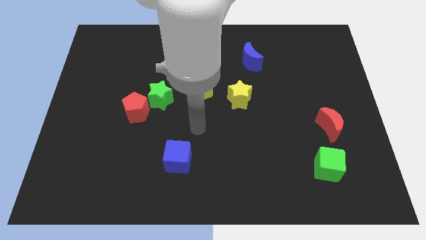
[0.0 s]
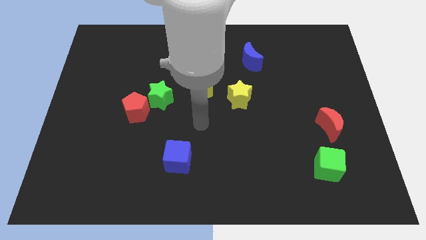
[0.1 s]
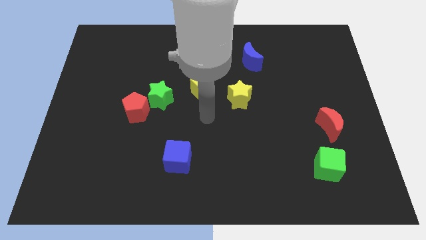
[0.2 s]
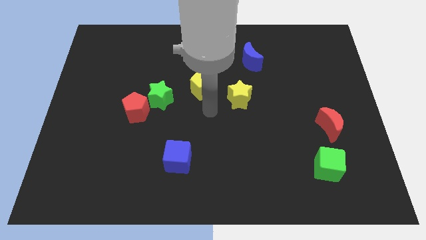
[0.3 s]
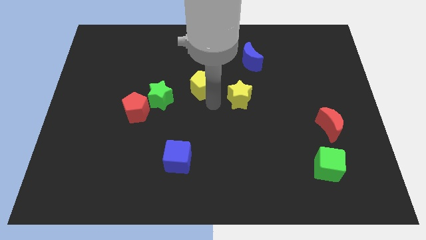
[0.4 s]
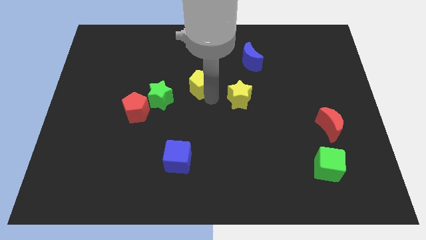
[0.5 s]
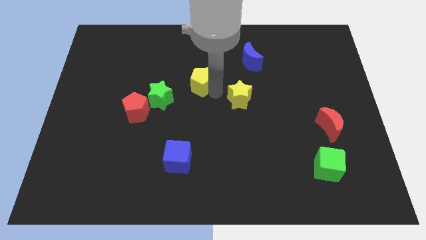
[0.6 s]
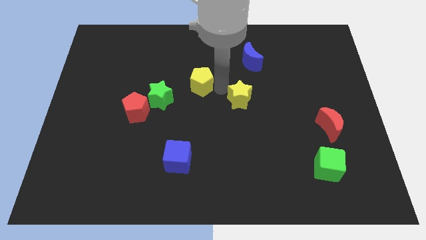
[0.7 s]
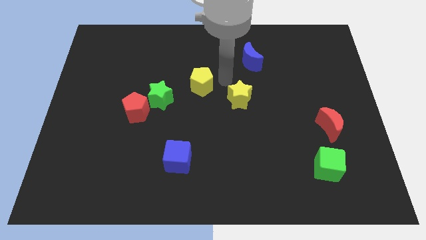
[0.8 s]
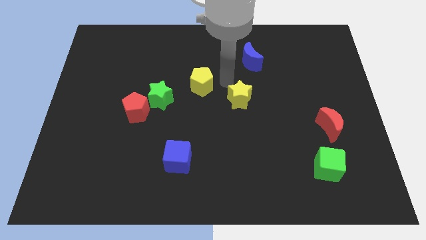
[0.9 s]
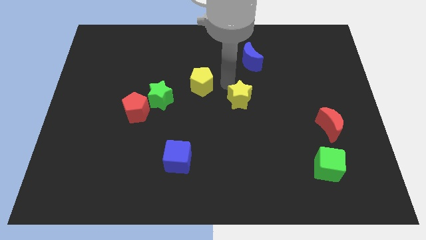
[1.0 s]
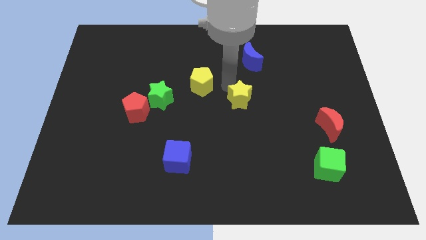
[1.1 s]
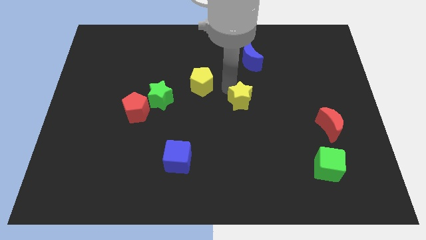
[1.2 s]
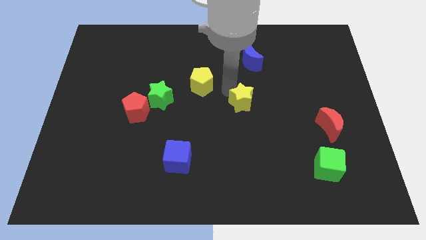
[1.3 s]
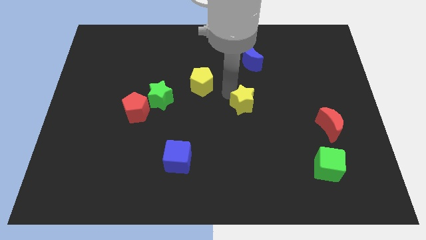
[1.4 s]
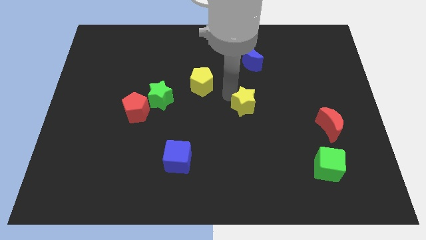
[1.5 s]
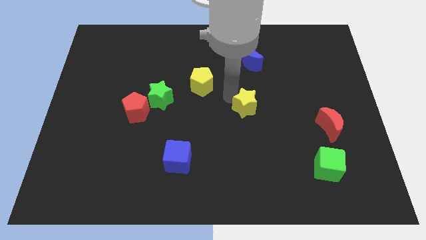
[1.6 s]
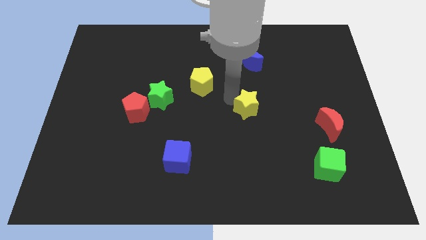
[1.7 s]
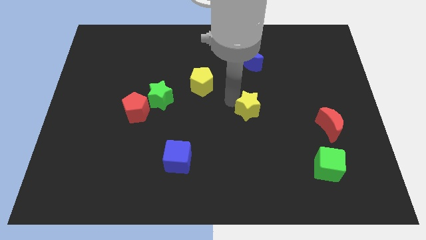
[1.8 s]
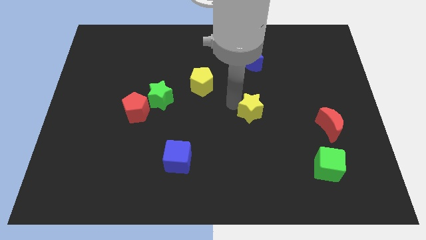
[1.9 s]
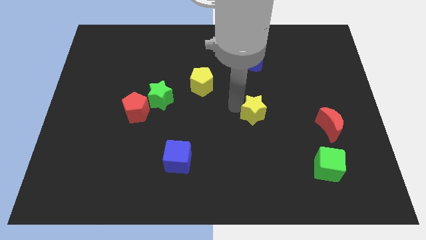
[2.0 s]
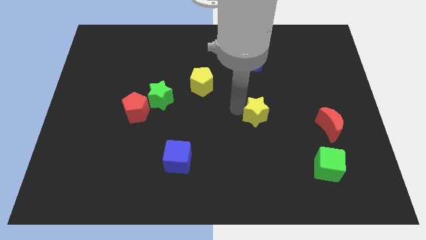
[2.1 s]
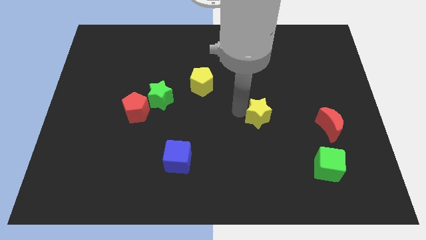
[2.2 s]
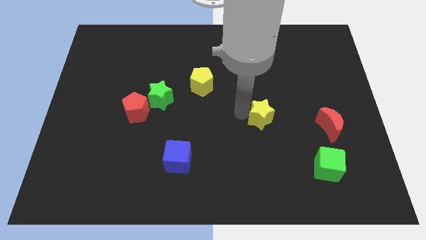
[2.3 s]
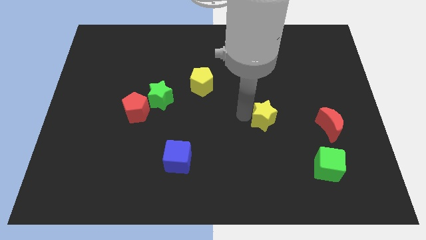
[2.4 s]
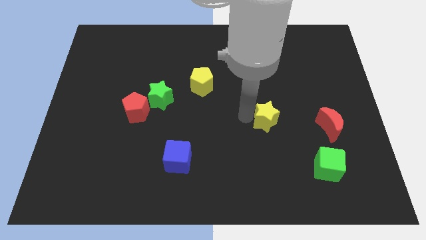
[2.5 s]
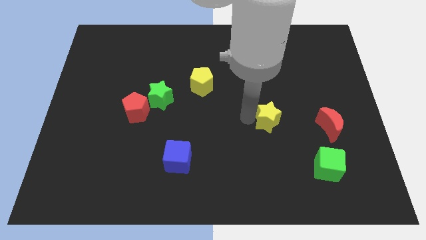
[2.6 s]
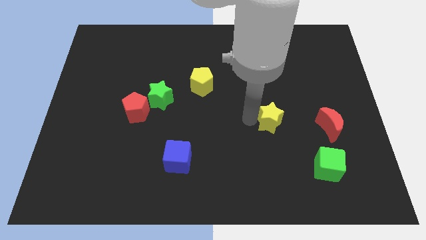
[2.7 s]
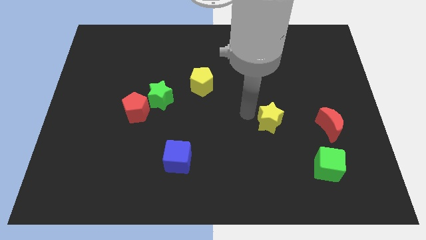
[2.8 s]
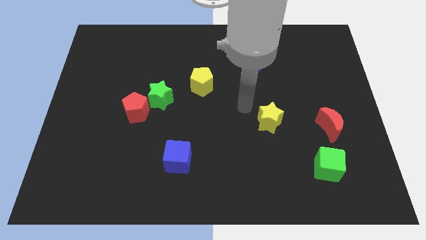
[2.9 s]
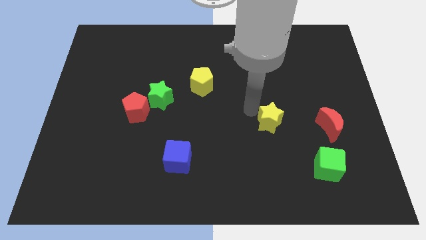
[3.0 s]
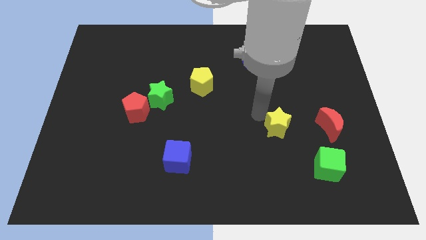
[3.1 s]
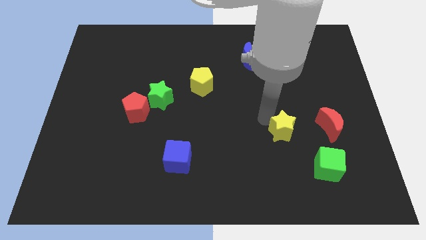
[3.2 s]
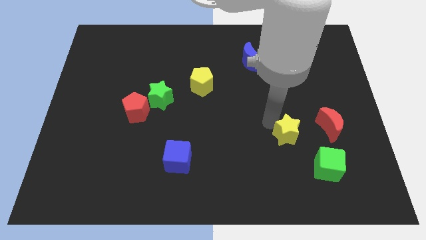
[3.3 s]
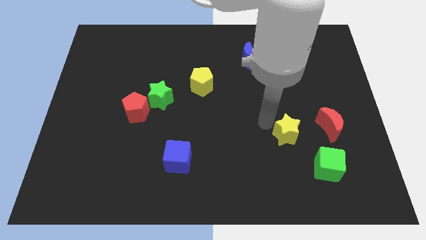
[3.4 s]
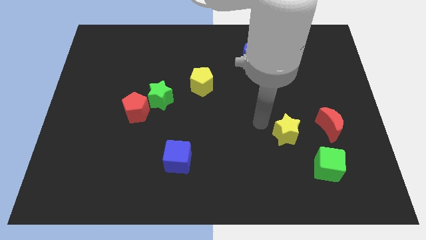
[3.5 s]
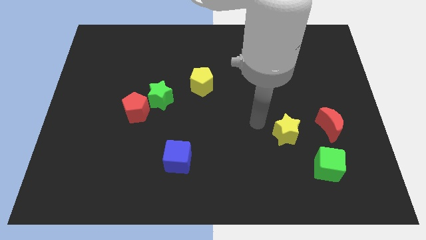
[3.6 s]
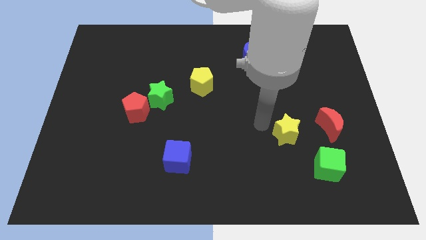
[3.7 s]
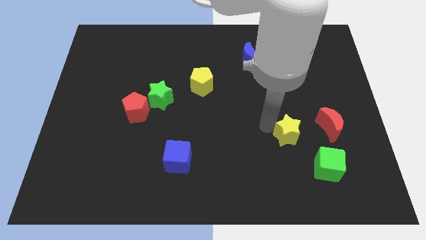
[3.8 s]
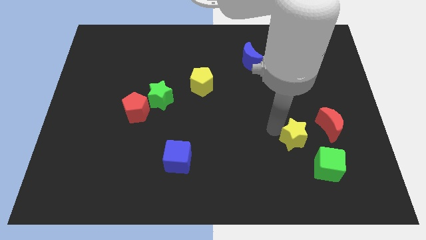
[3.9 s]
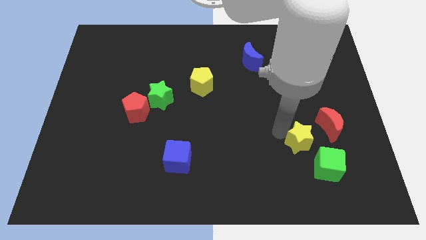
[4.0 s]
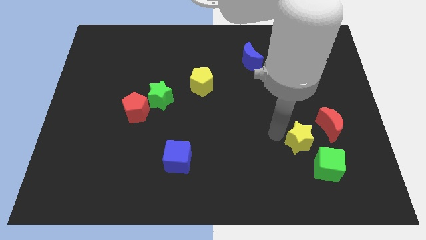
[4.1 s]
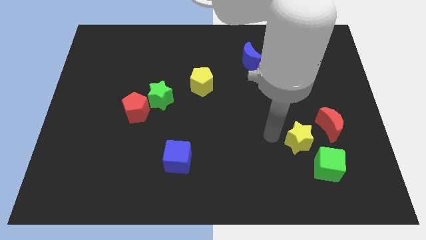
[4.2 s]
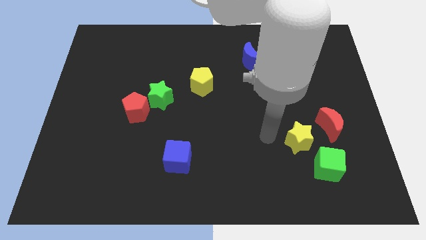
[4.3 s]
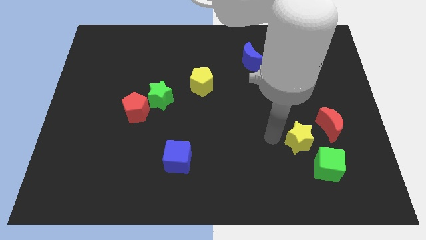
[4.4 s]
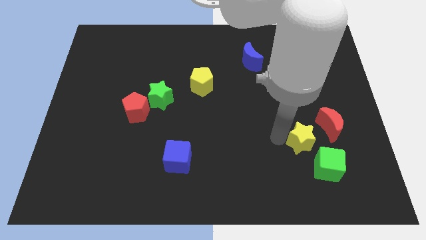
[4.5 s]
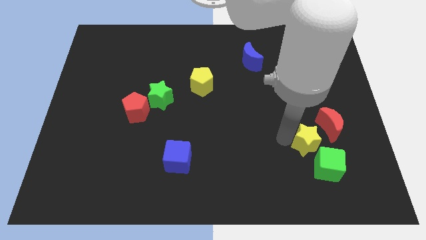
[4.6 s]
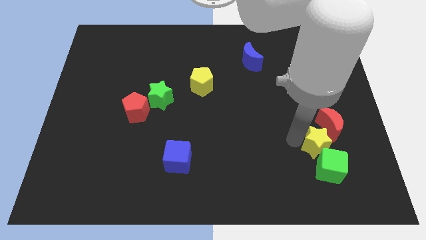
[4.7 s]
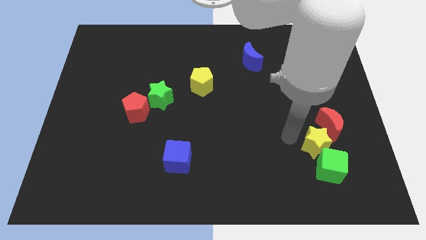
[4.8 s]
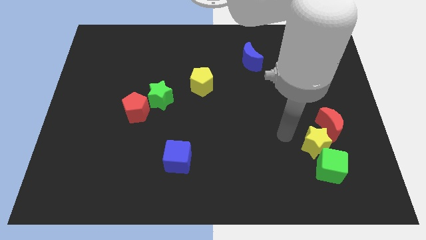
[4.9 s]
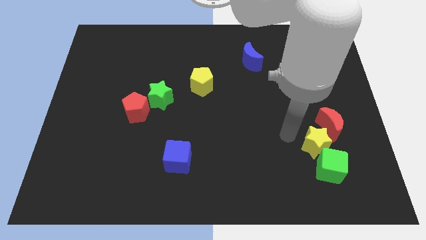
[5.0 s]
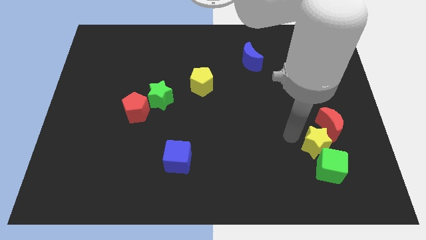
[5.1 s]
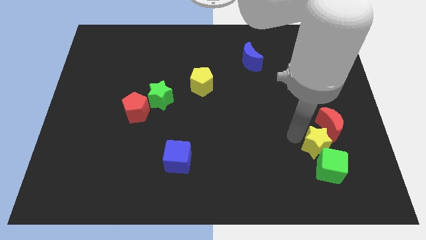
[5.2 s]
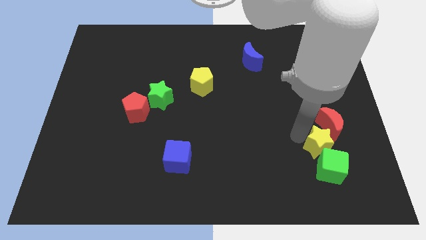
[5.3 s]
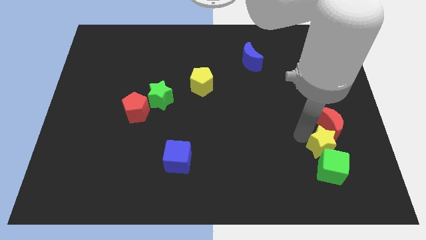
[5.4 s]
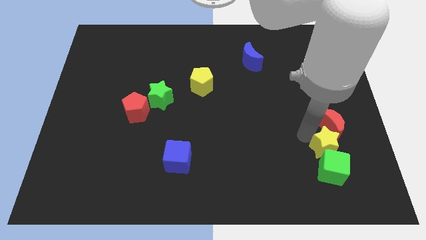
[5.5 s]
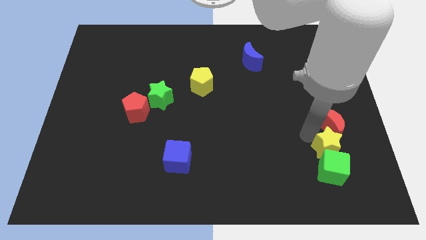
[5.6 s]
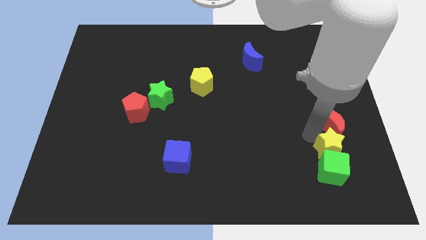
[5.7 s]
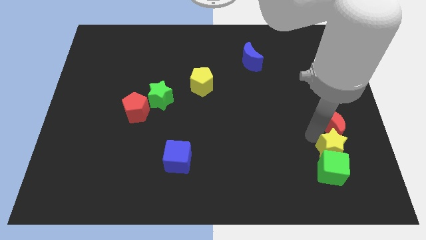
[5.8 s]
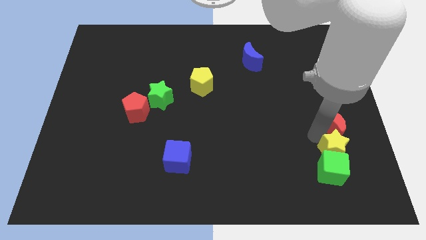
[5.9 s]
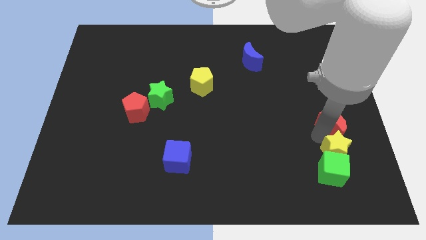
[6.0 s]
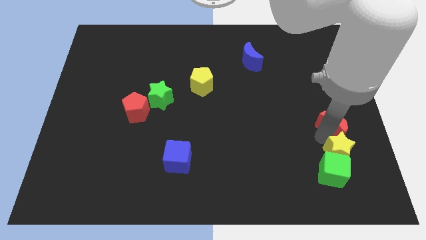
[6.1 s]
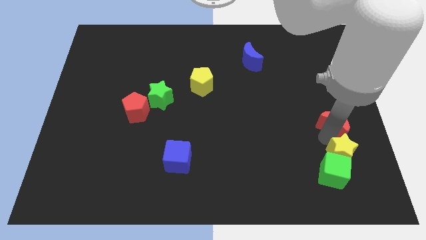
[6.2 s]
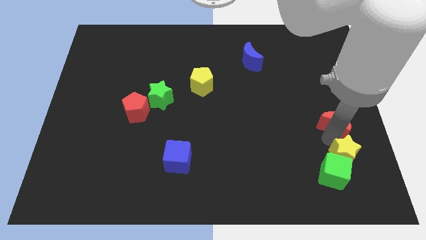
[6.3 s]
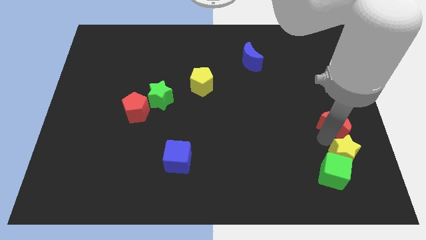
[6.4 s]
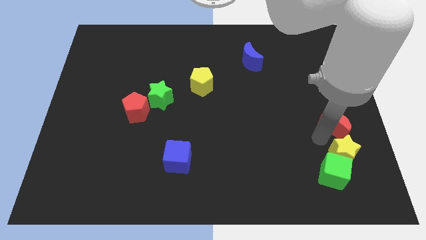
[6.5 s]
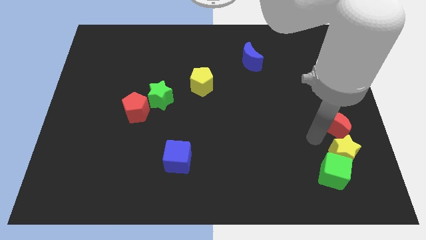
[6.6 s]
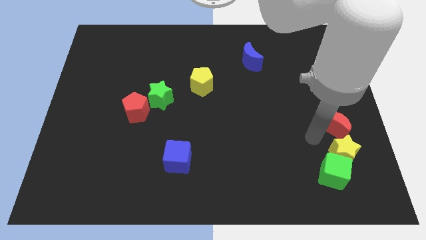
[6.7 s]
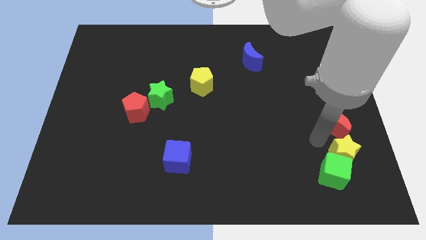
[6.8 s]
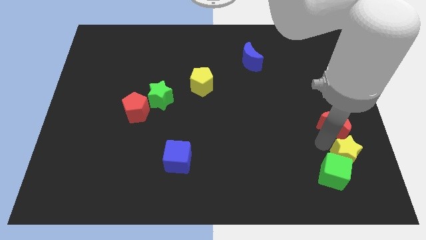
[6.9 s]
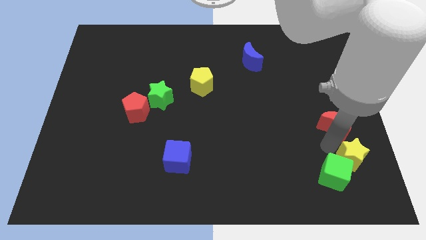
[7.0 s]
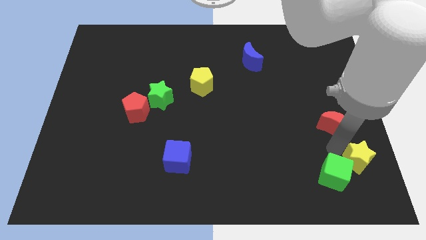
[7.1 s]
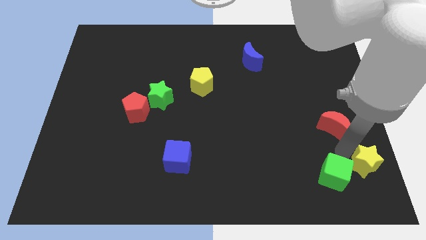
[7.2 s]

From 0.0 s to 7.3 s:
push the yellow star to the bottom right
